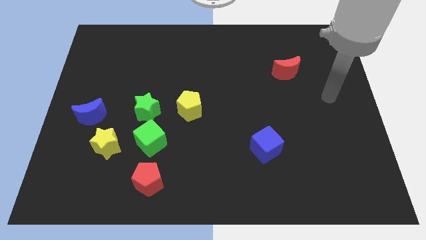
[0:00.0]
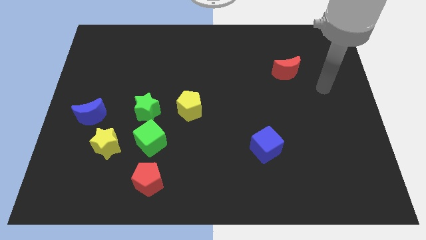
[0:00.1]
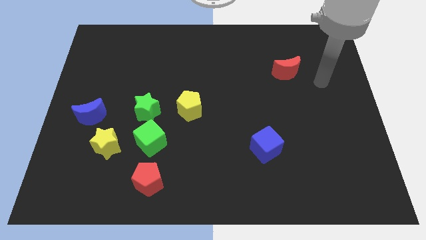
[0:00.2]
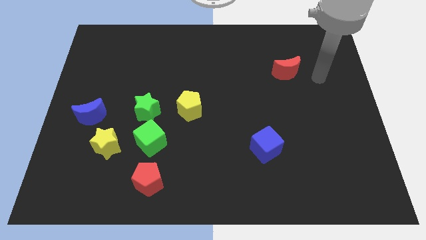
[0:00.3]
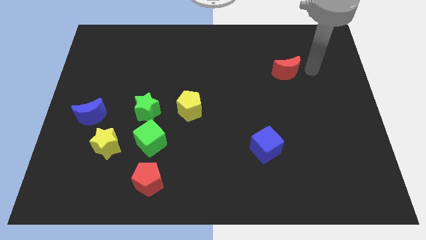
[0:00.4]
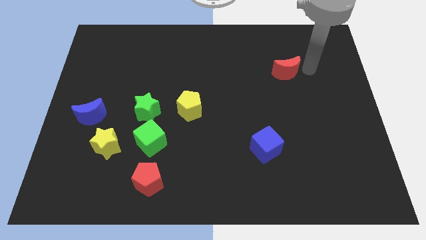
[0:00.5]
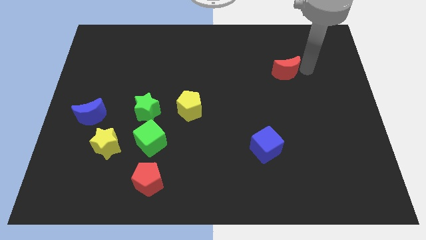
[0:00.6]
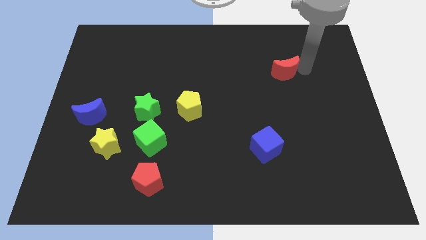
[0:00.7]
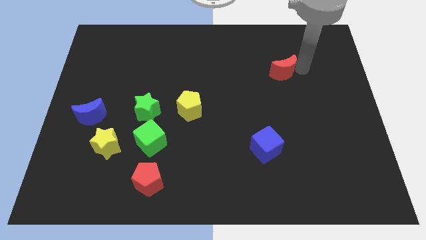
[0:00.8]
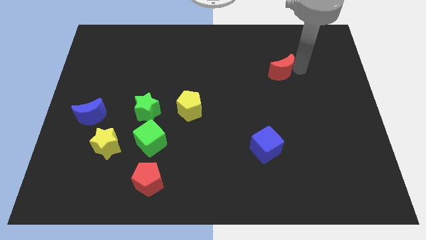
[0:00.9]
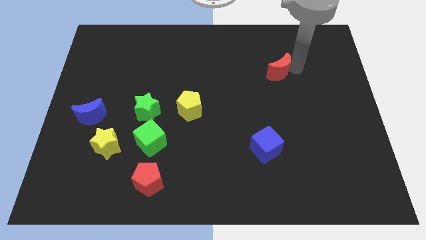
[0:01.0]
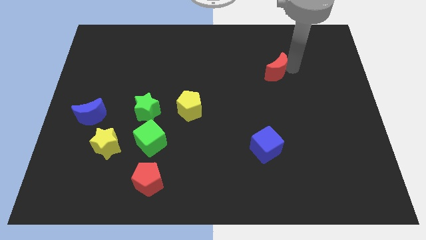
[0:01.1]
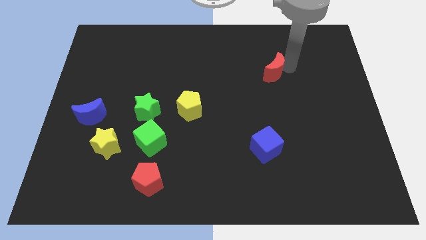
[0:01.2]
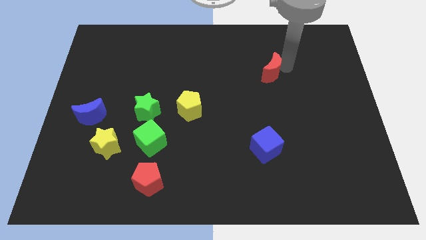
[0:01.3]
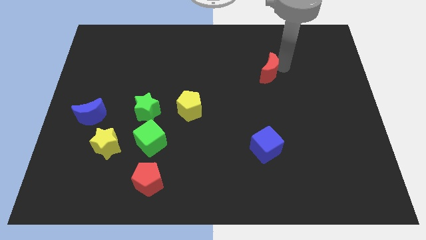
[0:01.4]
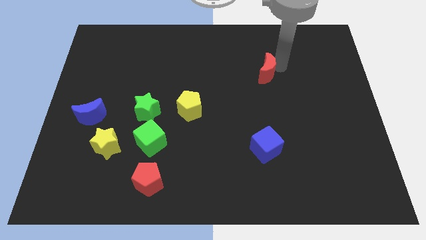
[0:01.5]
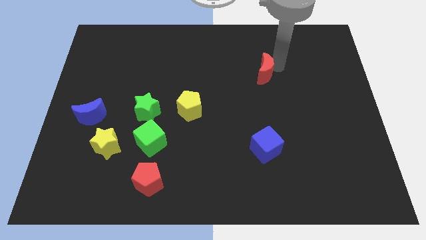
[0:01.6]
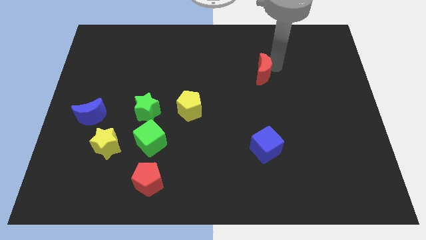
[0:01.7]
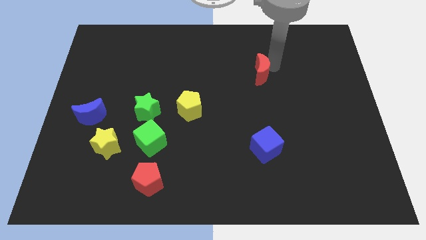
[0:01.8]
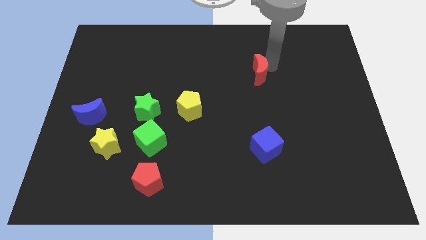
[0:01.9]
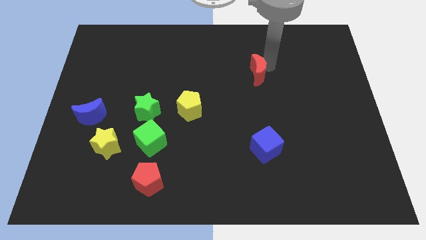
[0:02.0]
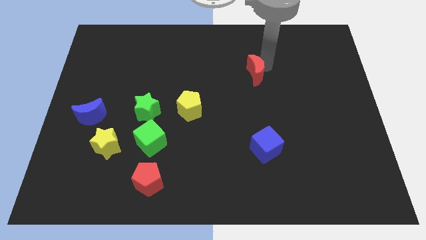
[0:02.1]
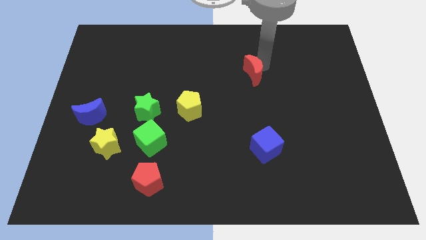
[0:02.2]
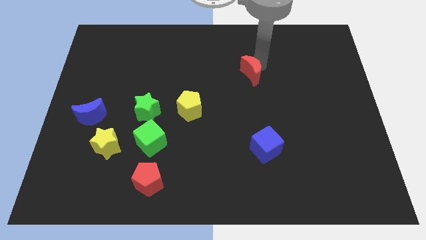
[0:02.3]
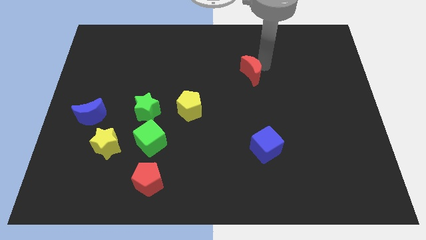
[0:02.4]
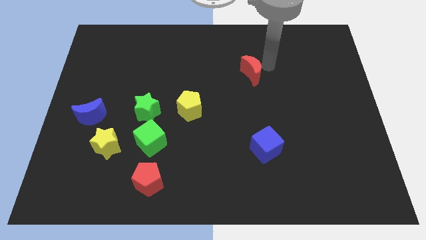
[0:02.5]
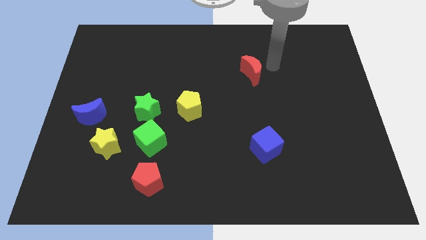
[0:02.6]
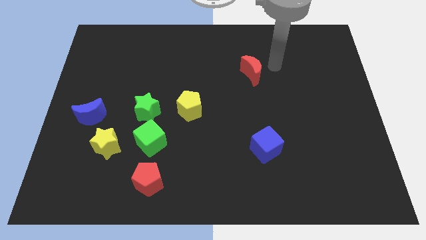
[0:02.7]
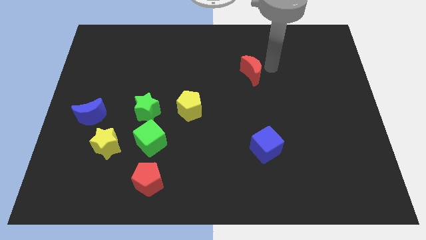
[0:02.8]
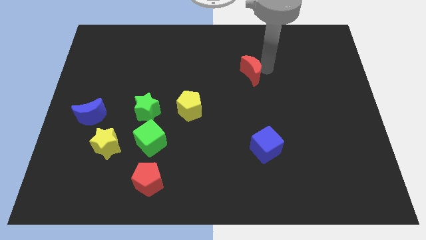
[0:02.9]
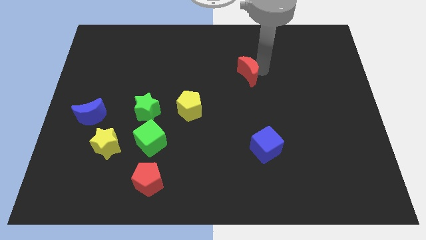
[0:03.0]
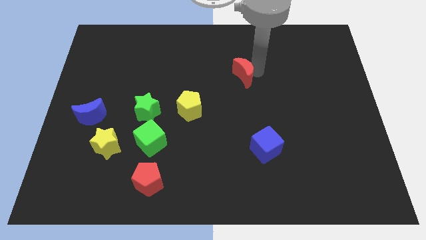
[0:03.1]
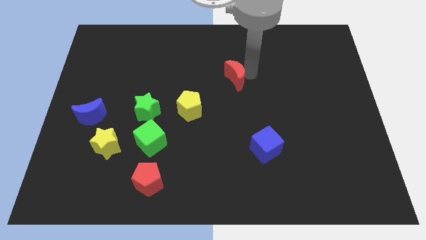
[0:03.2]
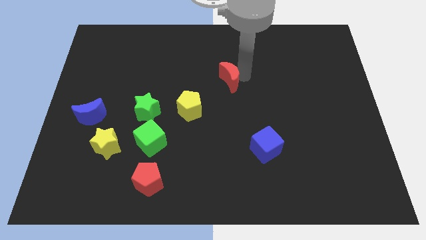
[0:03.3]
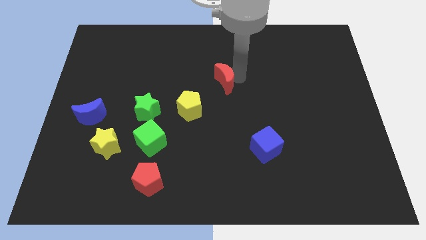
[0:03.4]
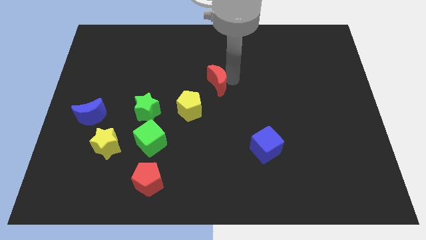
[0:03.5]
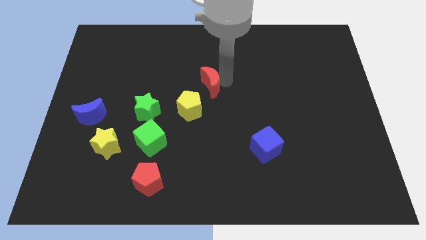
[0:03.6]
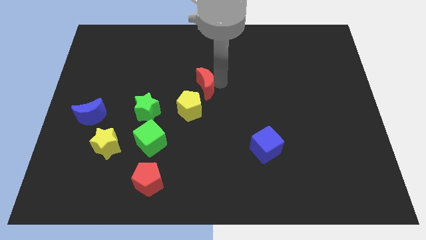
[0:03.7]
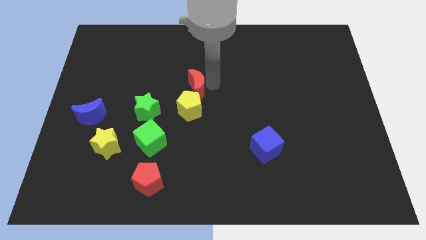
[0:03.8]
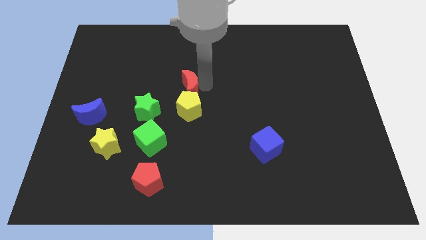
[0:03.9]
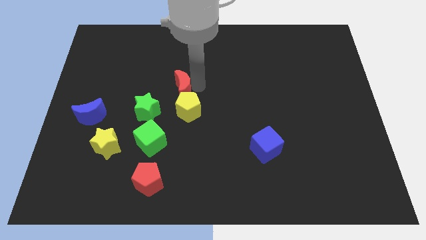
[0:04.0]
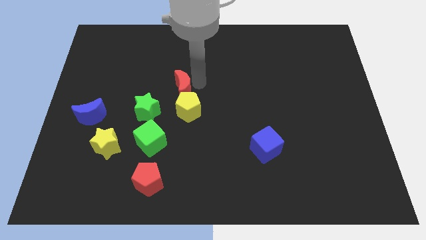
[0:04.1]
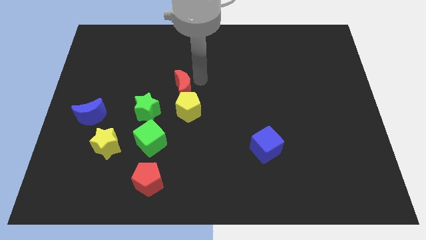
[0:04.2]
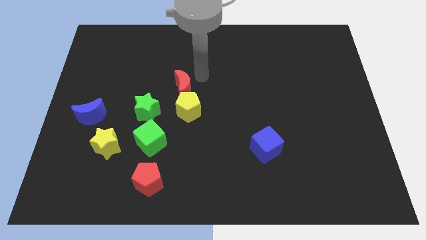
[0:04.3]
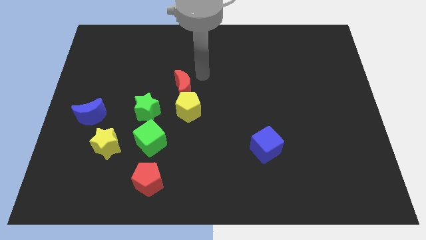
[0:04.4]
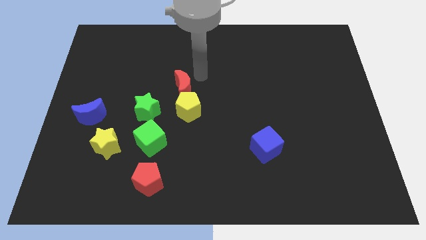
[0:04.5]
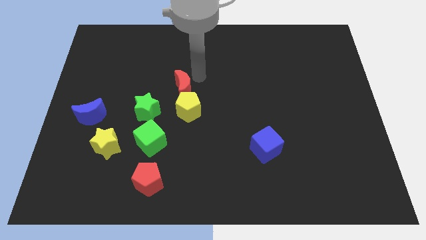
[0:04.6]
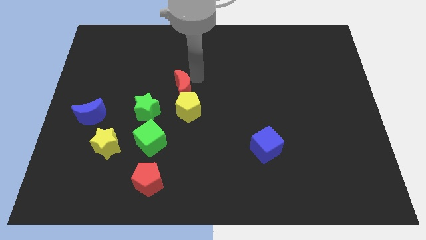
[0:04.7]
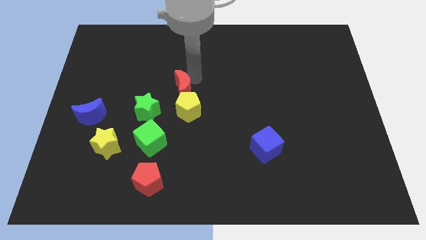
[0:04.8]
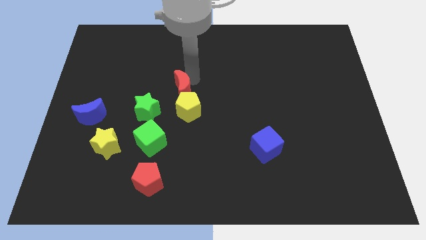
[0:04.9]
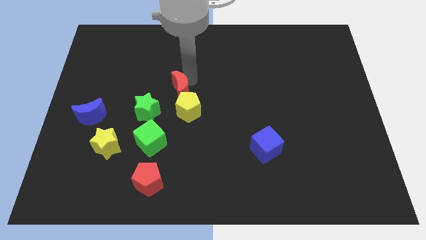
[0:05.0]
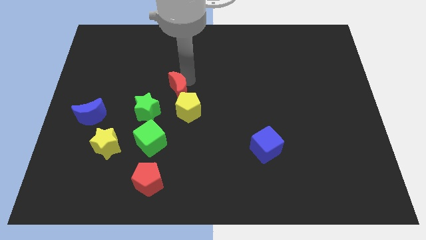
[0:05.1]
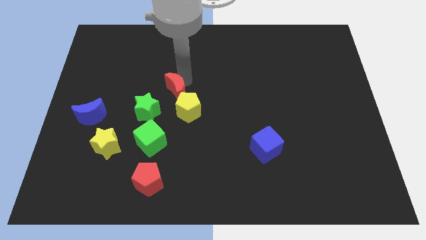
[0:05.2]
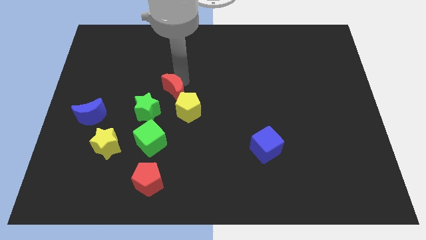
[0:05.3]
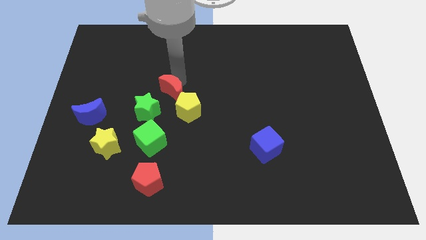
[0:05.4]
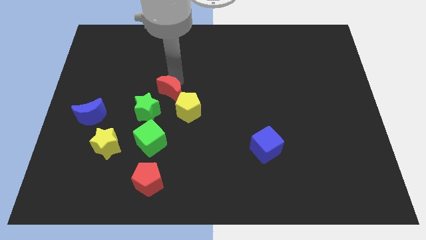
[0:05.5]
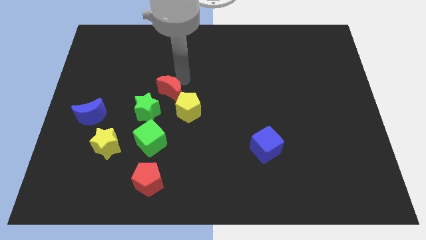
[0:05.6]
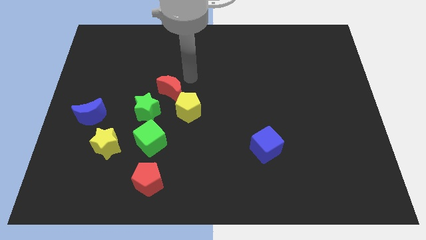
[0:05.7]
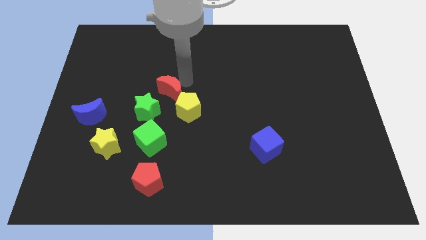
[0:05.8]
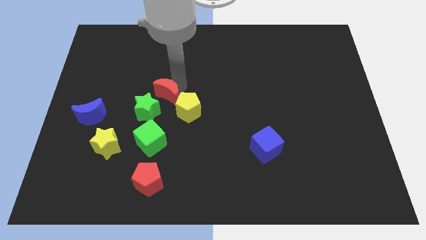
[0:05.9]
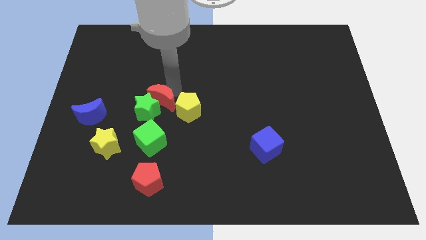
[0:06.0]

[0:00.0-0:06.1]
slide the red moon close to the green star
